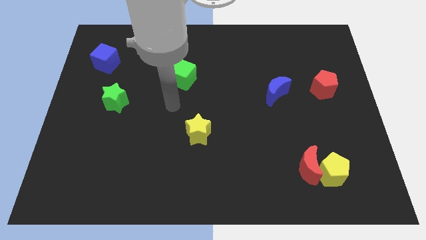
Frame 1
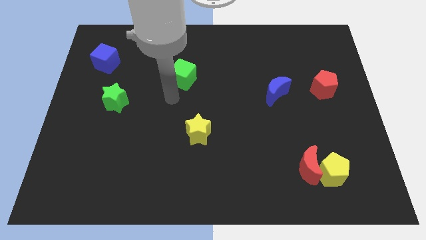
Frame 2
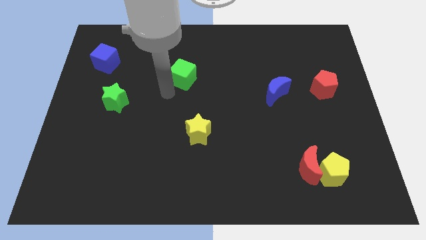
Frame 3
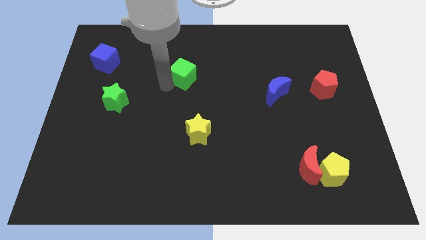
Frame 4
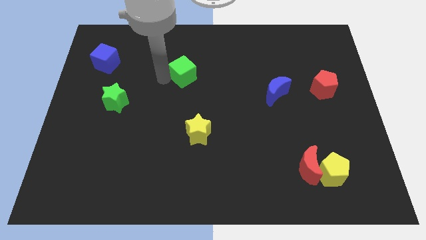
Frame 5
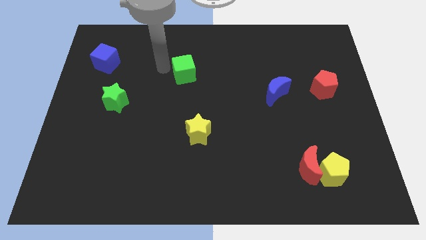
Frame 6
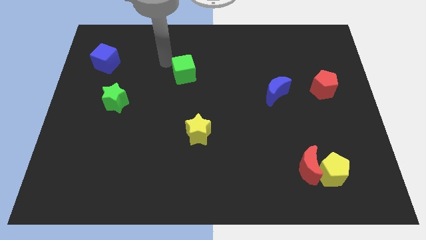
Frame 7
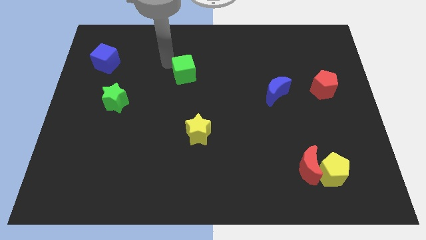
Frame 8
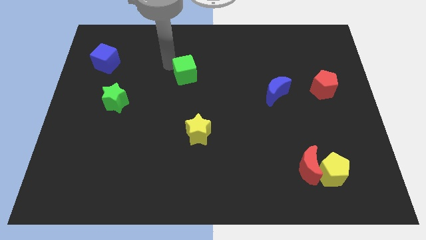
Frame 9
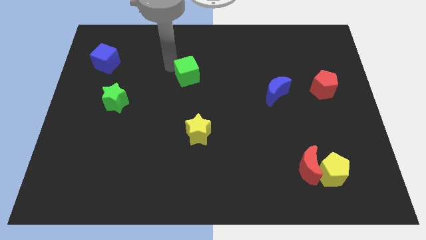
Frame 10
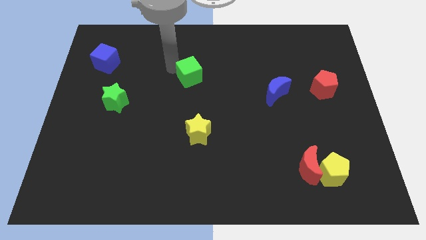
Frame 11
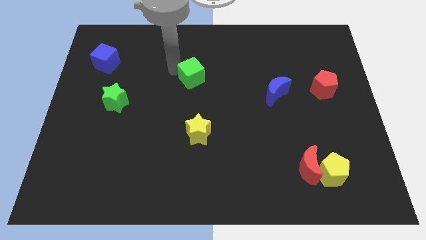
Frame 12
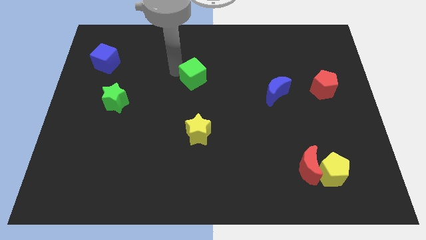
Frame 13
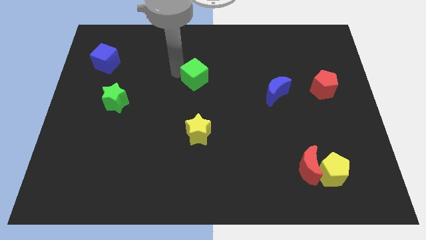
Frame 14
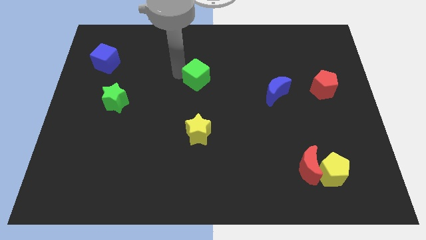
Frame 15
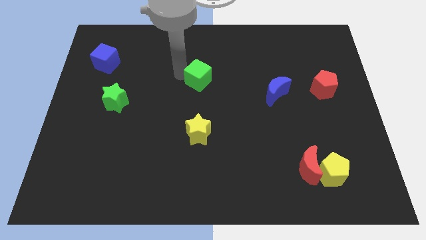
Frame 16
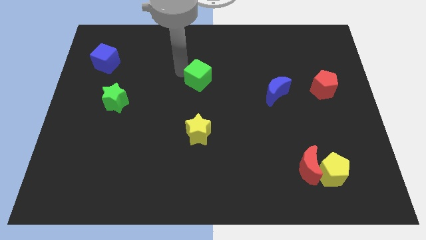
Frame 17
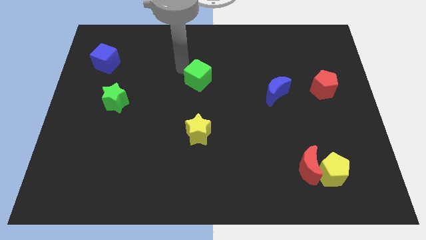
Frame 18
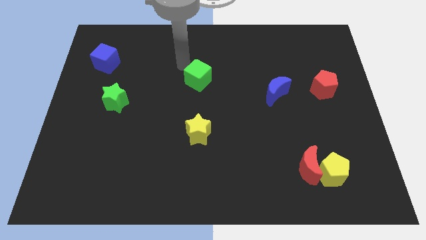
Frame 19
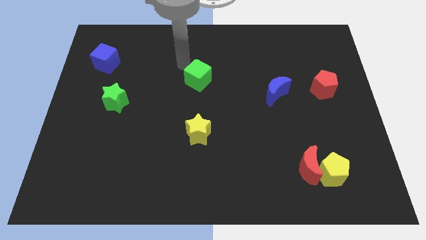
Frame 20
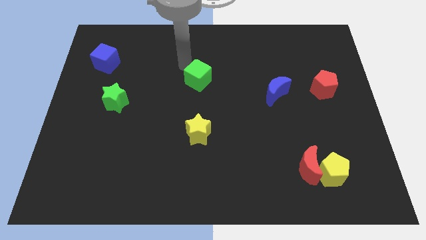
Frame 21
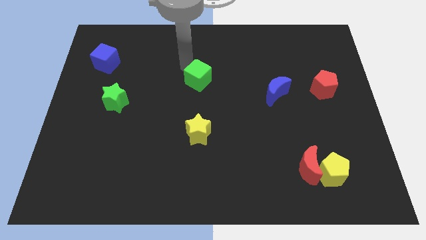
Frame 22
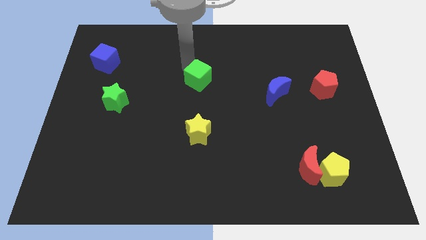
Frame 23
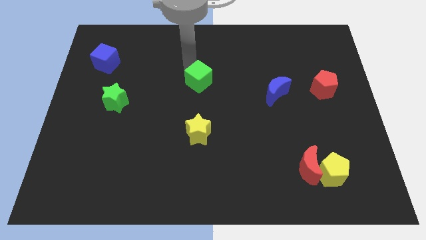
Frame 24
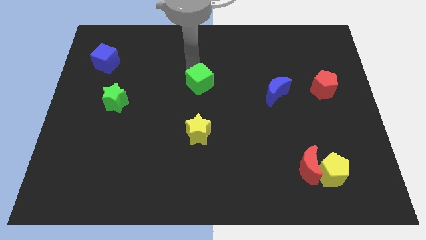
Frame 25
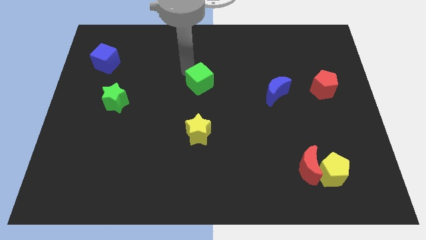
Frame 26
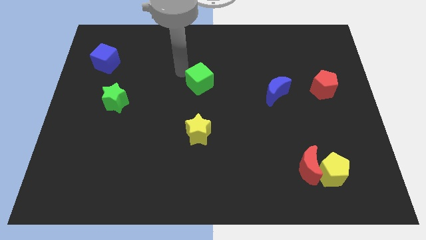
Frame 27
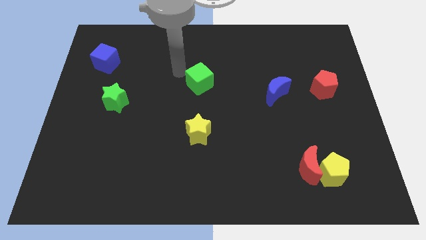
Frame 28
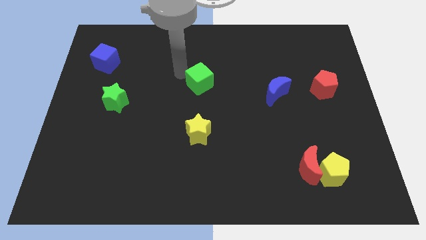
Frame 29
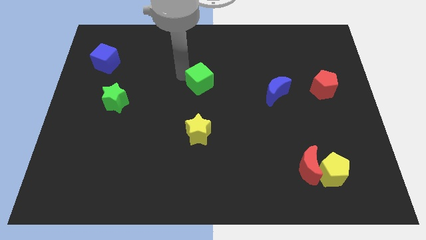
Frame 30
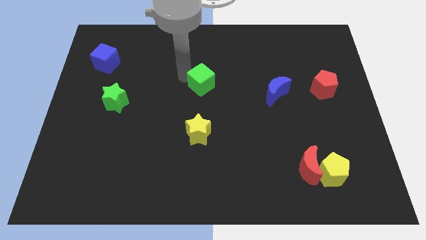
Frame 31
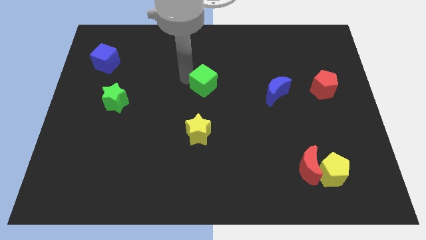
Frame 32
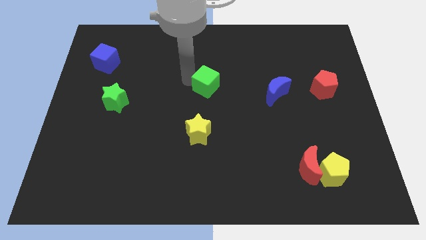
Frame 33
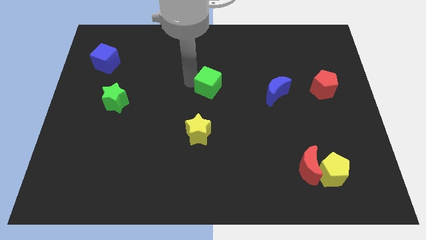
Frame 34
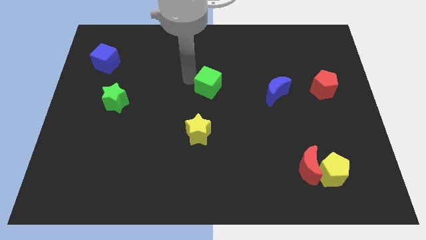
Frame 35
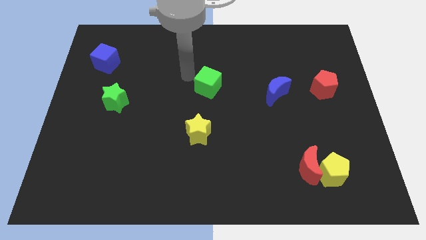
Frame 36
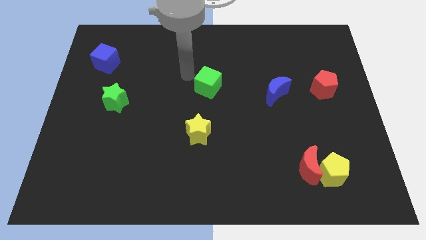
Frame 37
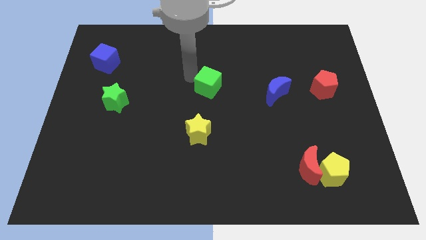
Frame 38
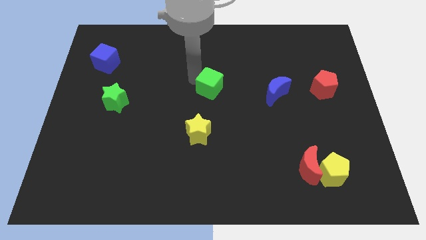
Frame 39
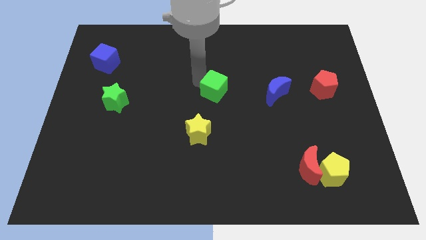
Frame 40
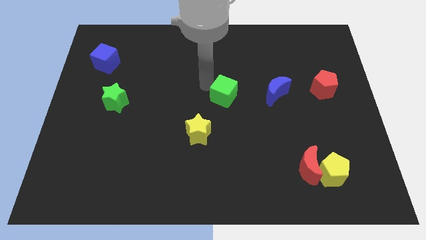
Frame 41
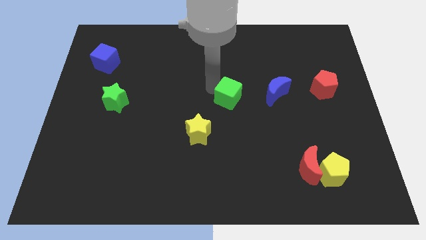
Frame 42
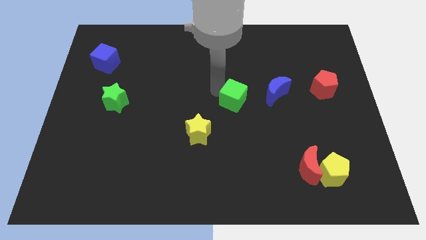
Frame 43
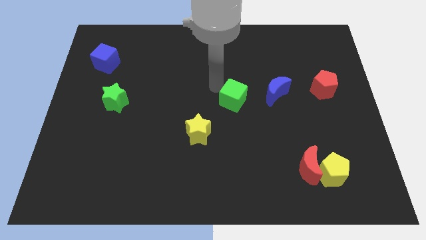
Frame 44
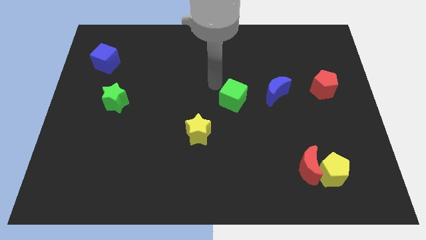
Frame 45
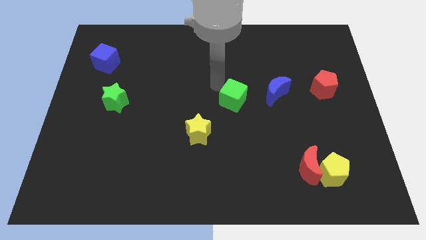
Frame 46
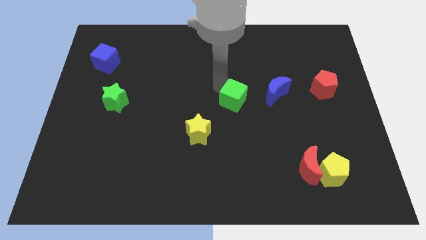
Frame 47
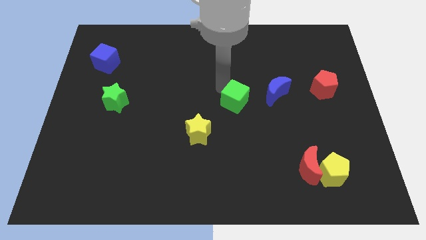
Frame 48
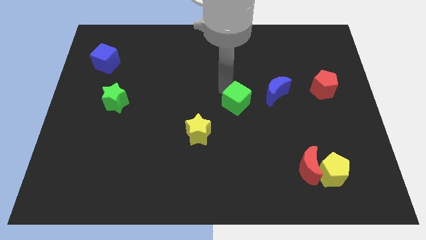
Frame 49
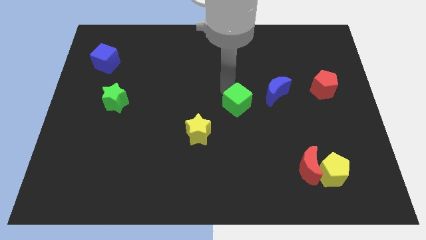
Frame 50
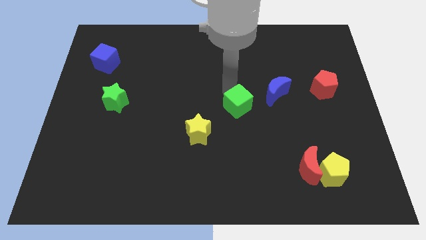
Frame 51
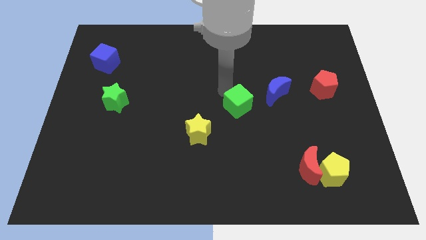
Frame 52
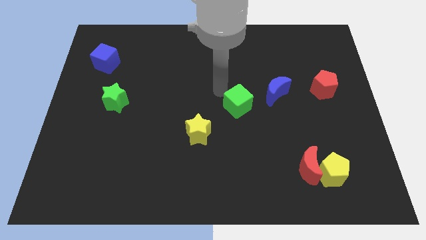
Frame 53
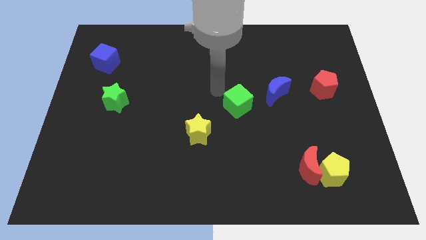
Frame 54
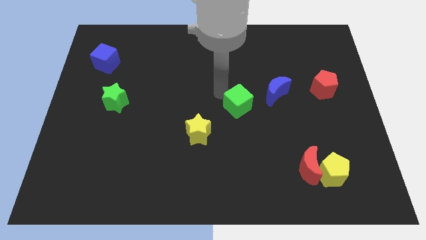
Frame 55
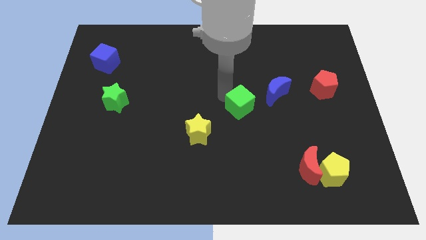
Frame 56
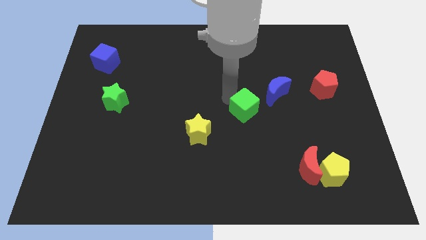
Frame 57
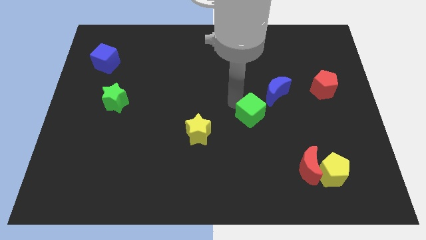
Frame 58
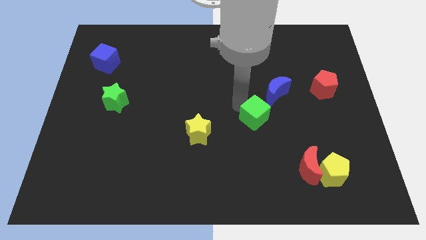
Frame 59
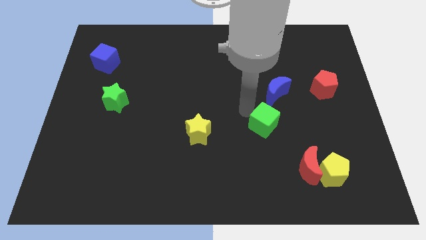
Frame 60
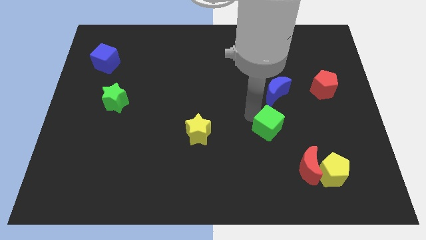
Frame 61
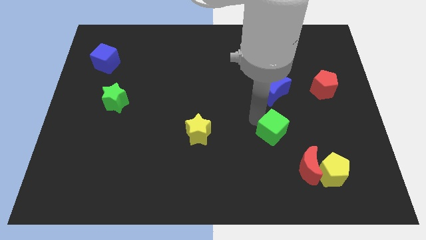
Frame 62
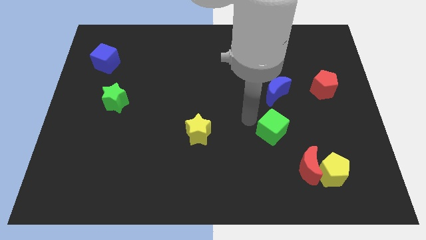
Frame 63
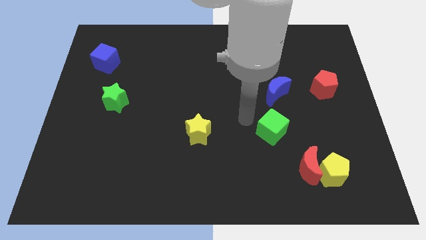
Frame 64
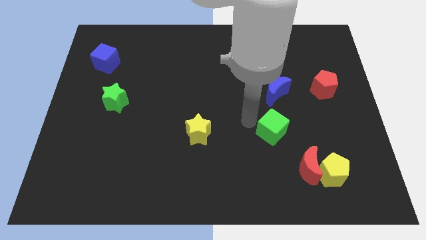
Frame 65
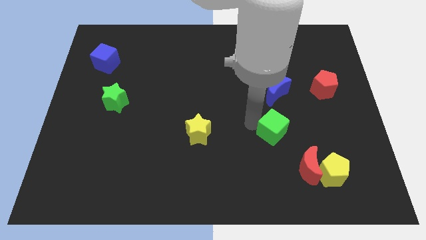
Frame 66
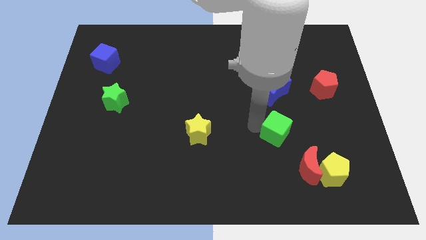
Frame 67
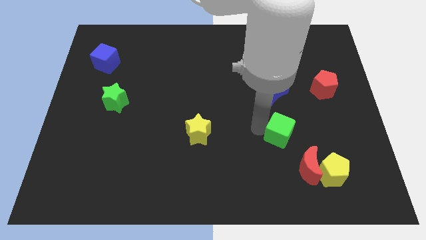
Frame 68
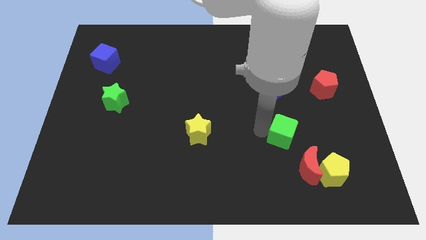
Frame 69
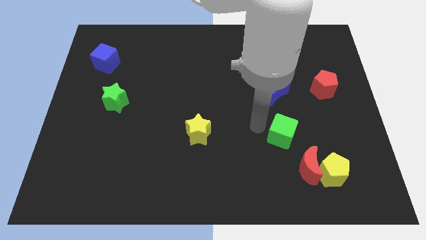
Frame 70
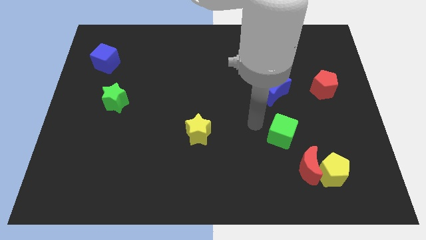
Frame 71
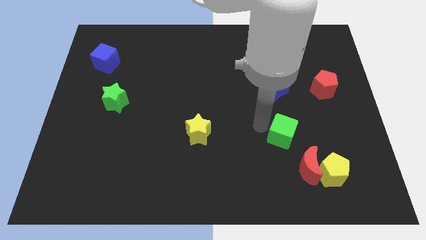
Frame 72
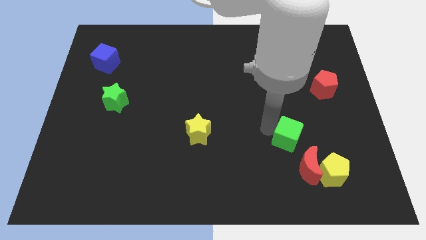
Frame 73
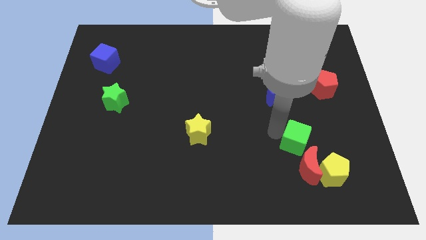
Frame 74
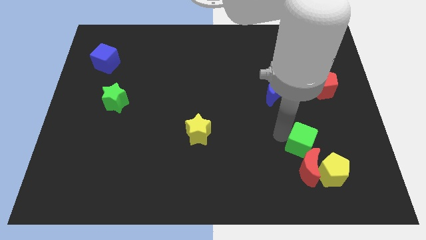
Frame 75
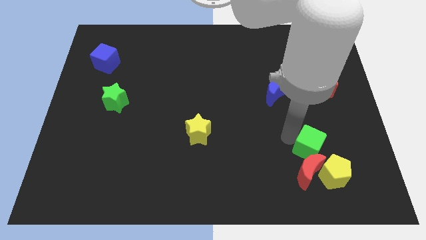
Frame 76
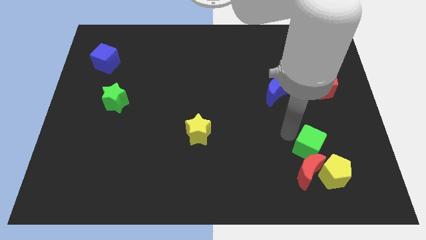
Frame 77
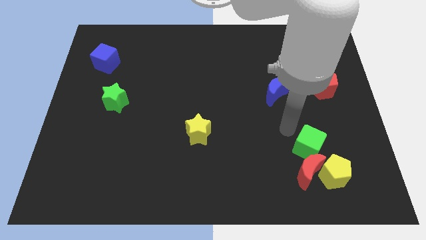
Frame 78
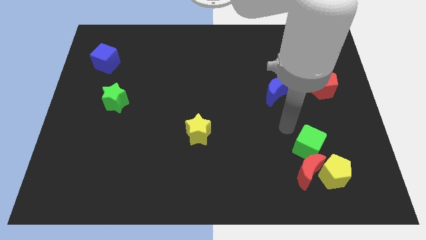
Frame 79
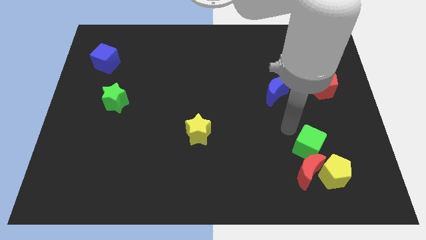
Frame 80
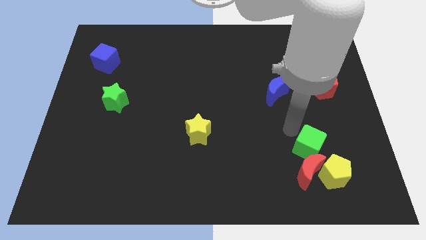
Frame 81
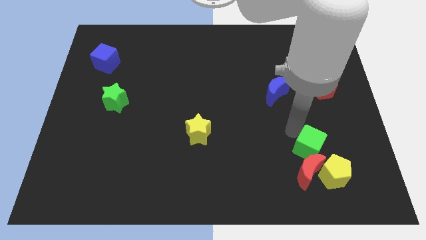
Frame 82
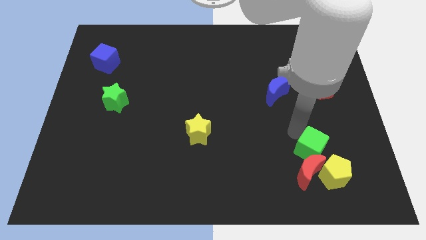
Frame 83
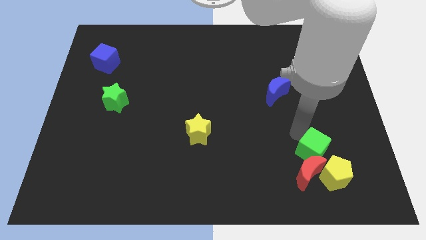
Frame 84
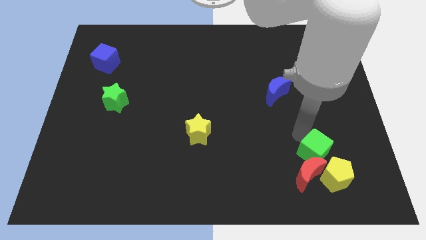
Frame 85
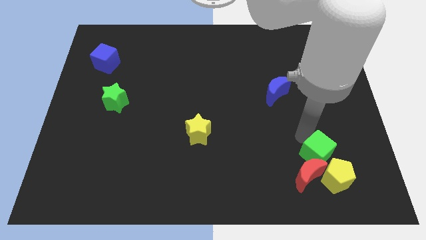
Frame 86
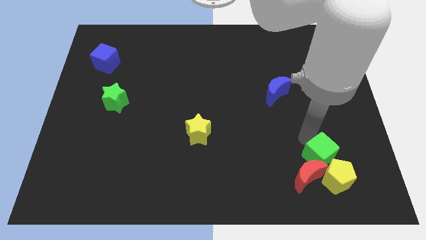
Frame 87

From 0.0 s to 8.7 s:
push the green cube next to the yellow pentagon
